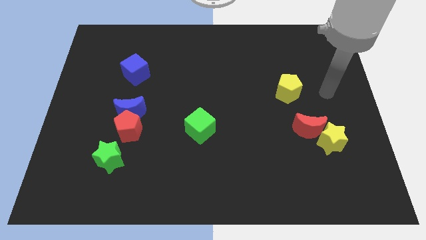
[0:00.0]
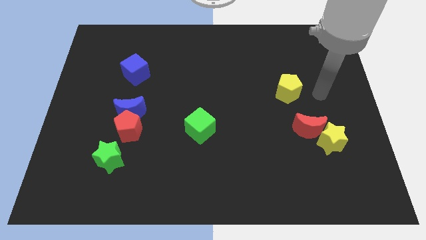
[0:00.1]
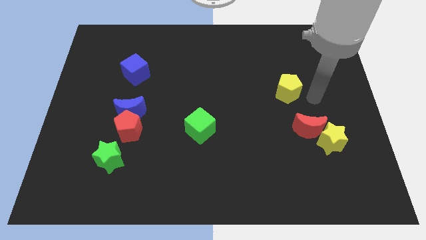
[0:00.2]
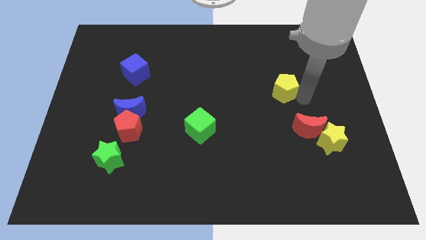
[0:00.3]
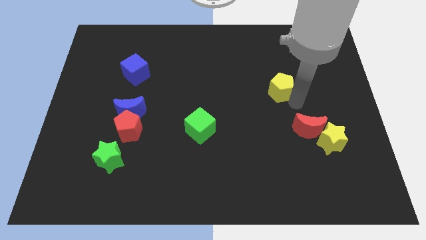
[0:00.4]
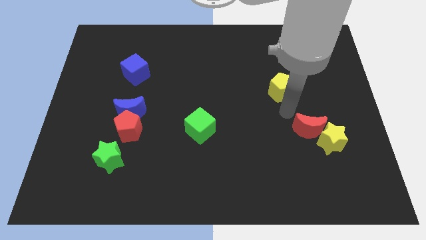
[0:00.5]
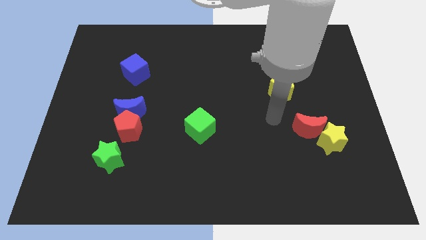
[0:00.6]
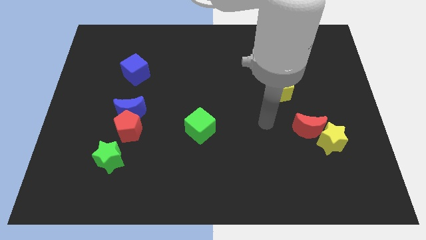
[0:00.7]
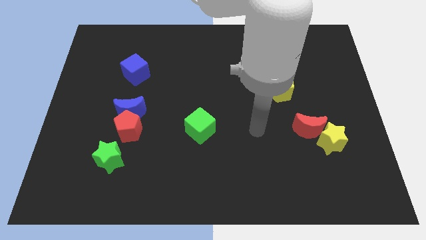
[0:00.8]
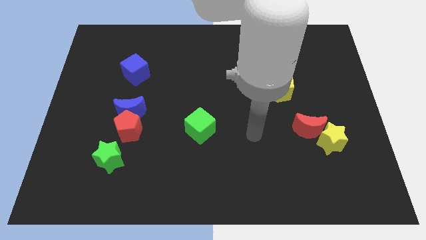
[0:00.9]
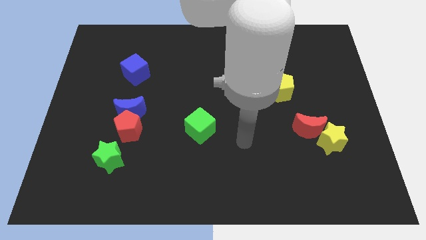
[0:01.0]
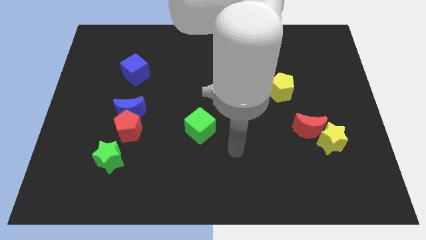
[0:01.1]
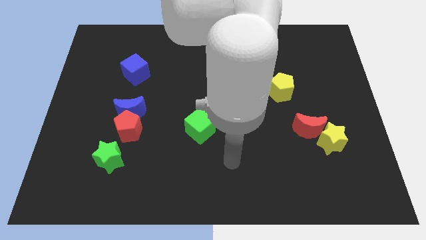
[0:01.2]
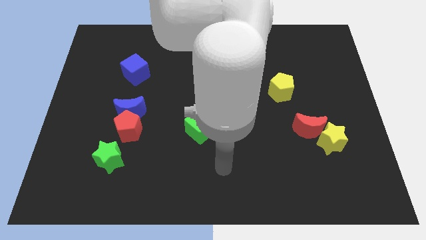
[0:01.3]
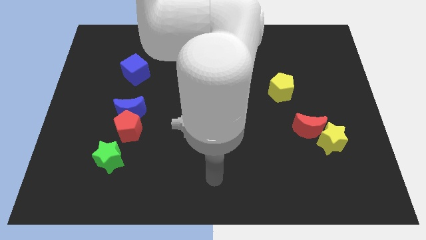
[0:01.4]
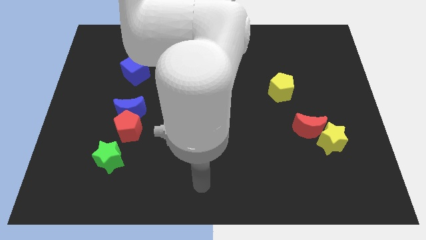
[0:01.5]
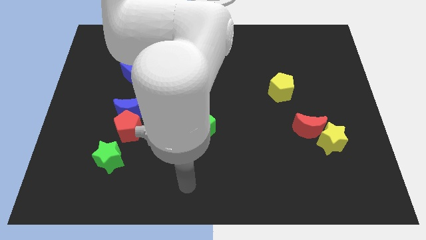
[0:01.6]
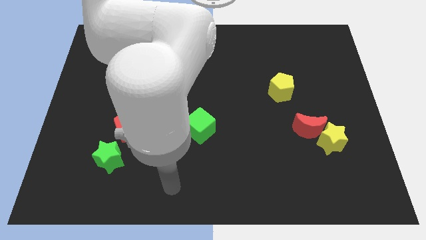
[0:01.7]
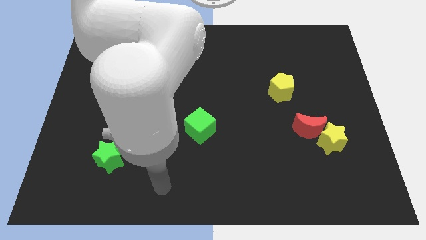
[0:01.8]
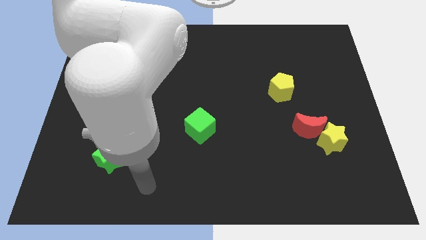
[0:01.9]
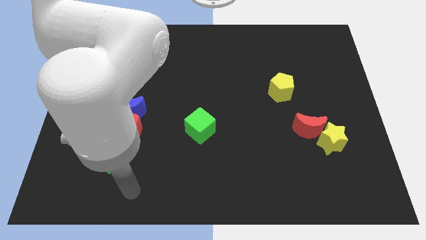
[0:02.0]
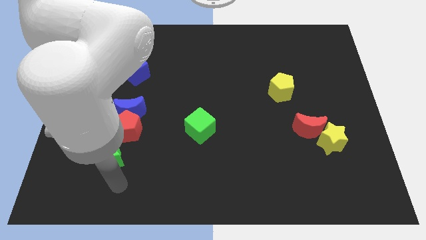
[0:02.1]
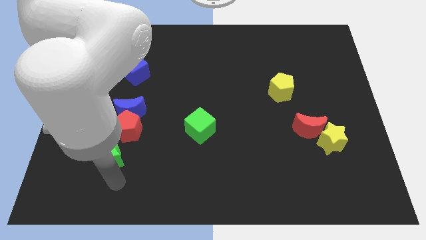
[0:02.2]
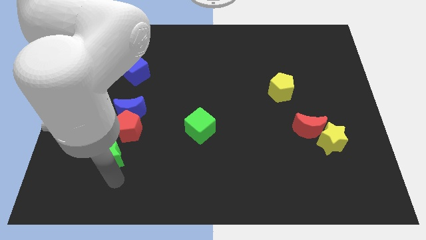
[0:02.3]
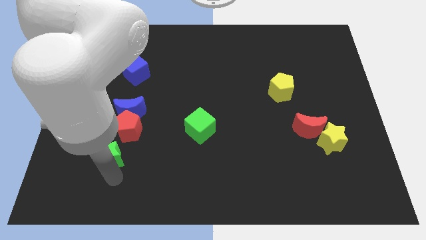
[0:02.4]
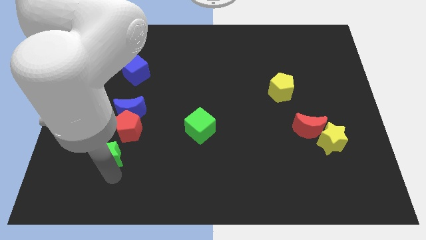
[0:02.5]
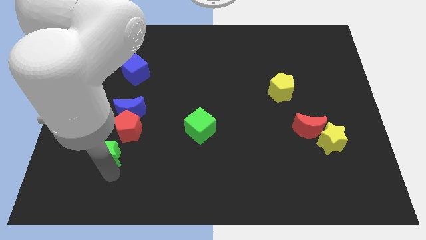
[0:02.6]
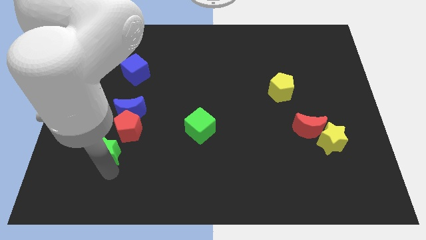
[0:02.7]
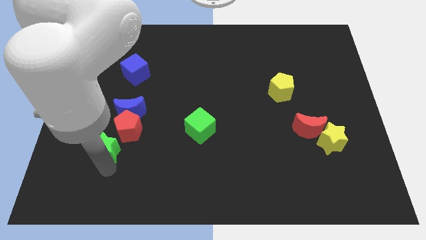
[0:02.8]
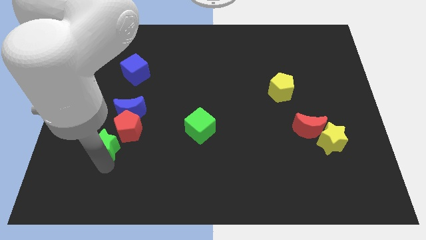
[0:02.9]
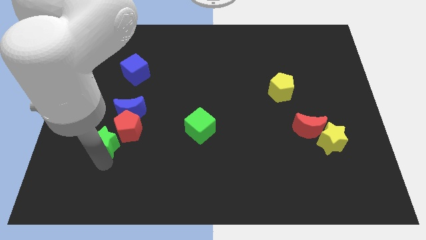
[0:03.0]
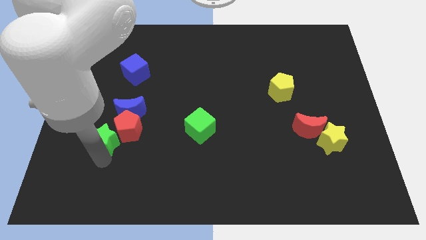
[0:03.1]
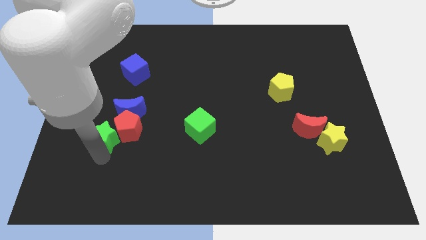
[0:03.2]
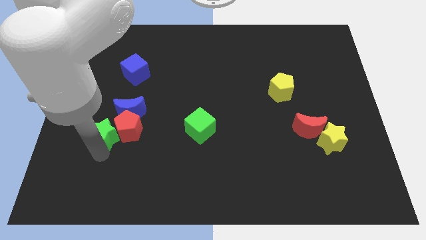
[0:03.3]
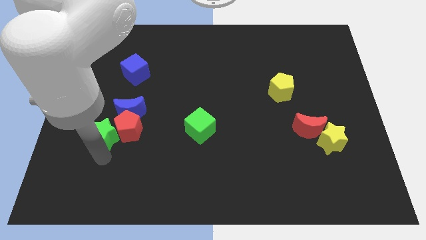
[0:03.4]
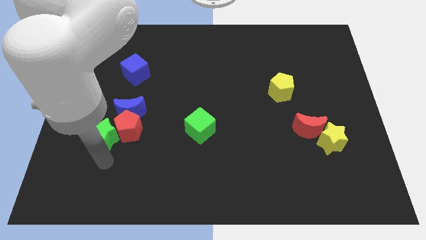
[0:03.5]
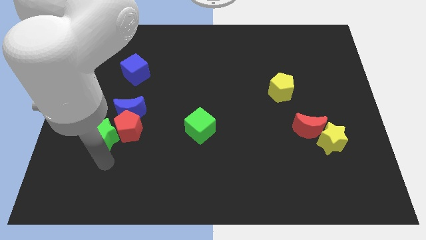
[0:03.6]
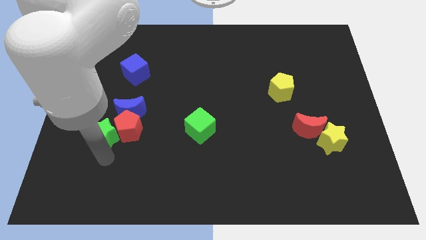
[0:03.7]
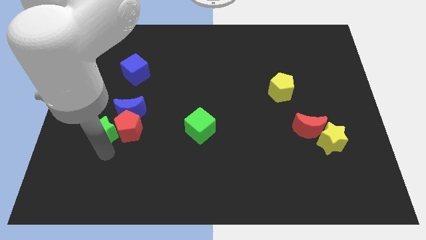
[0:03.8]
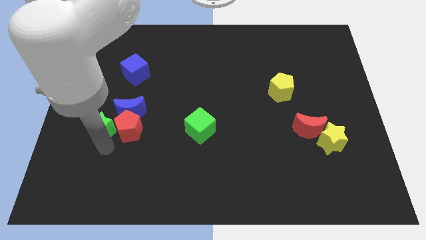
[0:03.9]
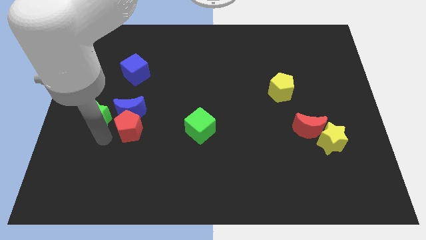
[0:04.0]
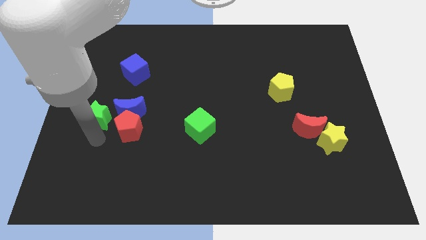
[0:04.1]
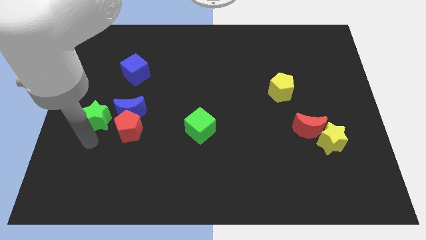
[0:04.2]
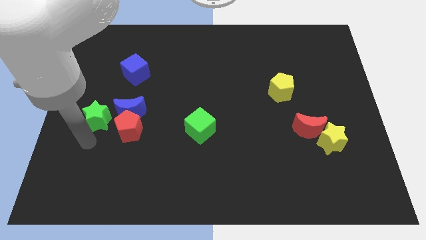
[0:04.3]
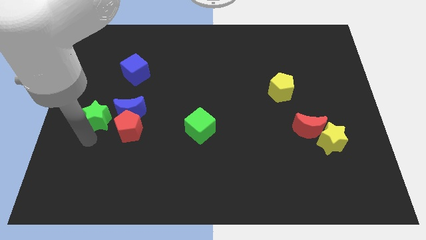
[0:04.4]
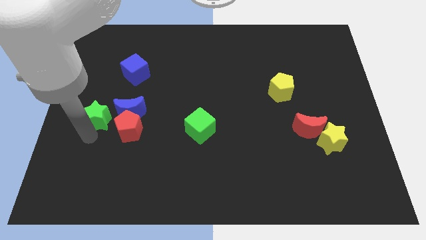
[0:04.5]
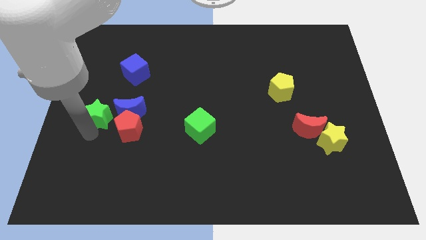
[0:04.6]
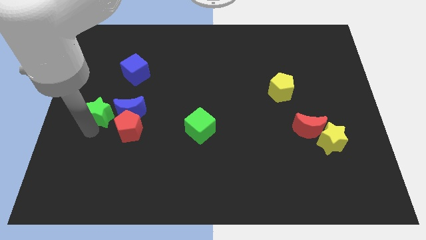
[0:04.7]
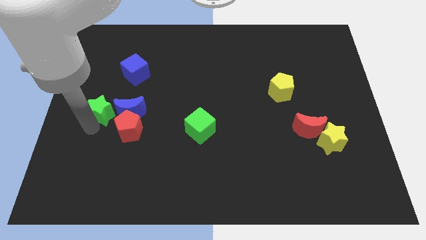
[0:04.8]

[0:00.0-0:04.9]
slide the green star to the top left side of the blue moon

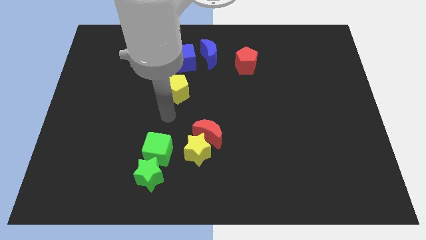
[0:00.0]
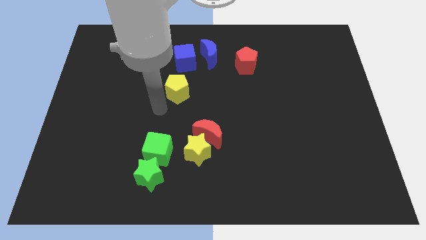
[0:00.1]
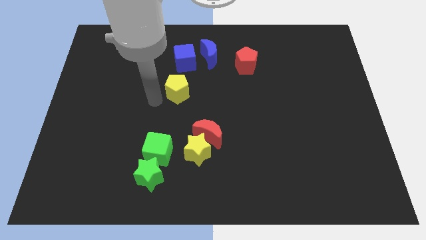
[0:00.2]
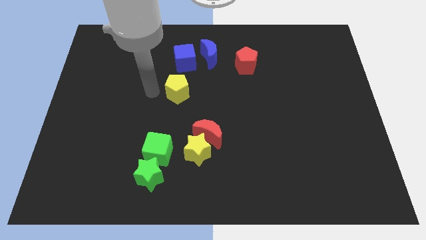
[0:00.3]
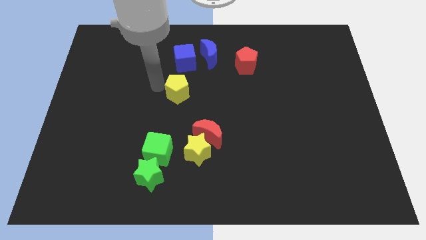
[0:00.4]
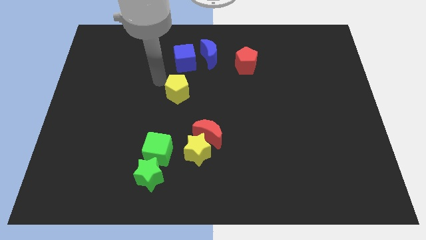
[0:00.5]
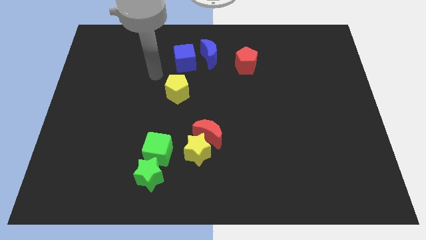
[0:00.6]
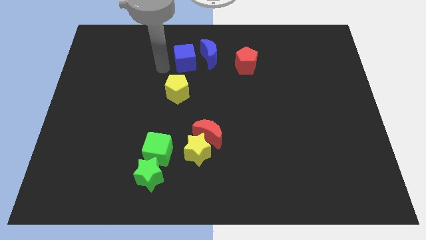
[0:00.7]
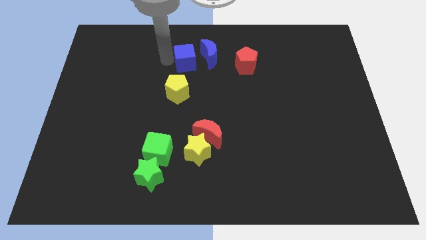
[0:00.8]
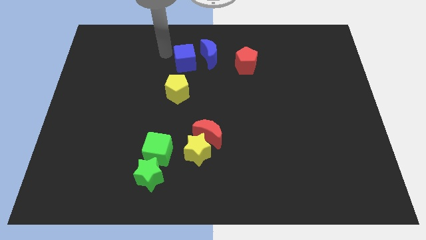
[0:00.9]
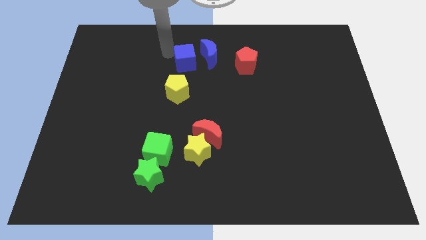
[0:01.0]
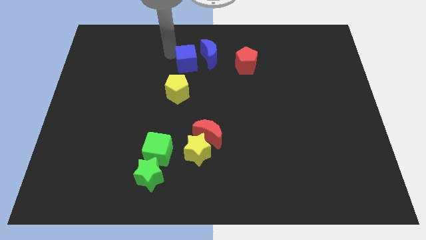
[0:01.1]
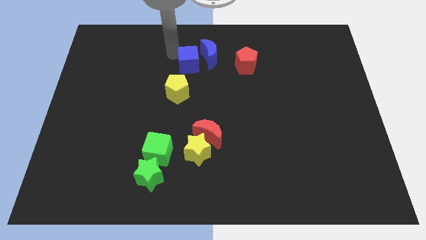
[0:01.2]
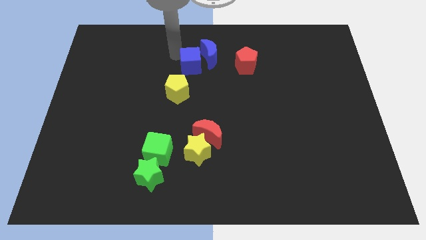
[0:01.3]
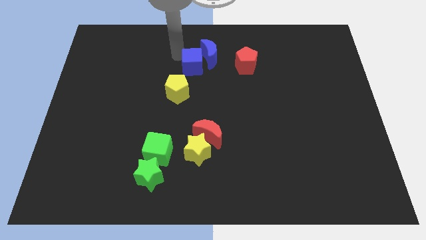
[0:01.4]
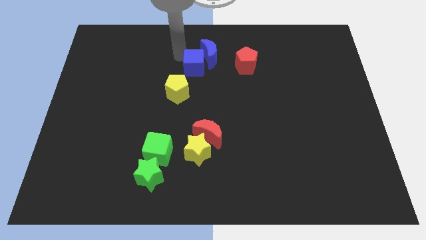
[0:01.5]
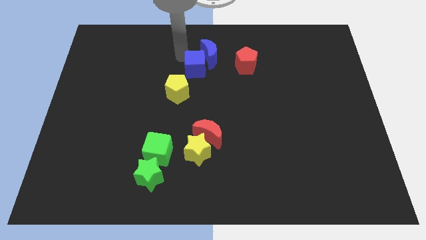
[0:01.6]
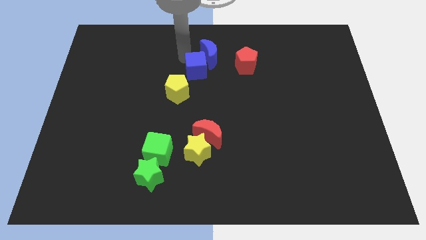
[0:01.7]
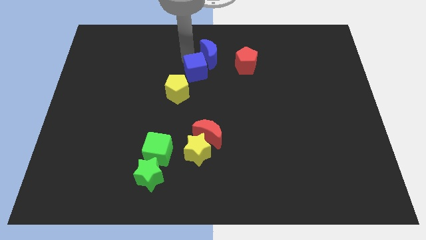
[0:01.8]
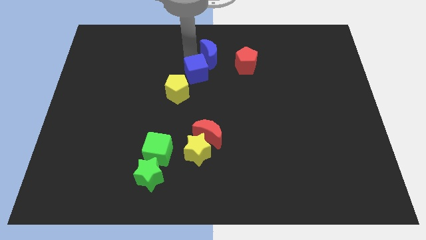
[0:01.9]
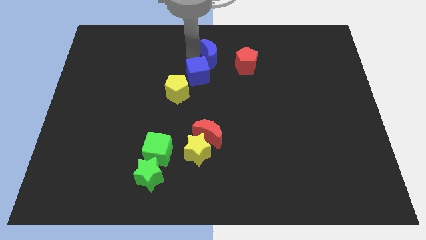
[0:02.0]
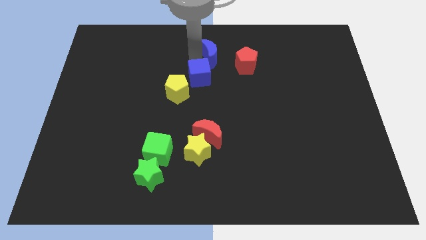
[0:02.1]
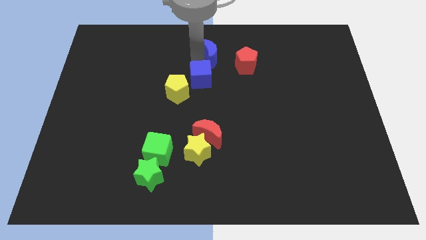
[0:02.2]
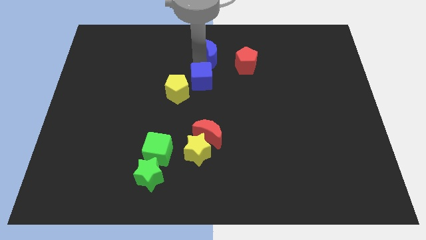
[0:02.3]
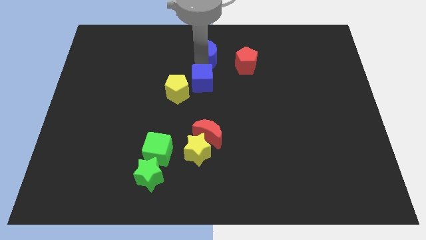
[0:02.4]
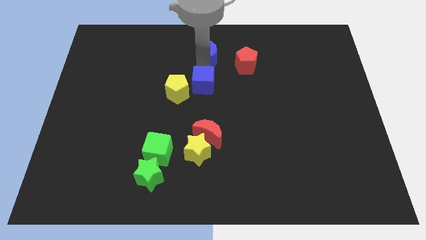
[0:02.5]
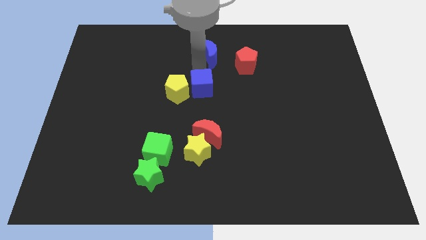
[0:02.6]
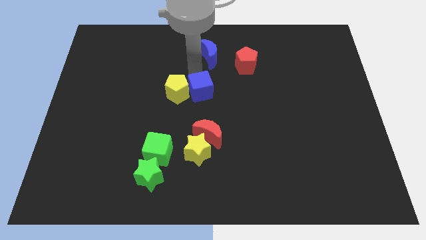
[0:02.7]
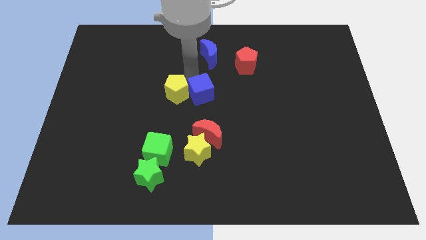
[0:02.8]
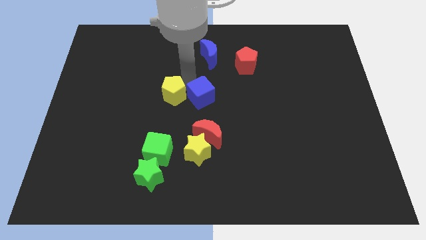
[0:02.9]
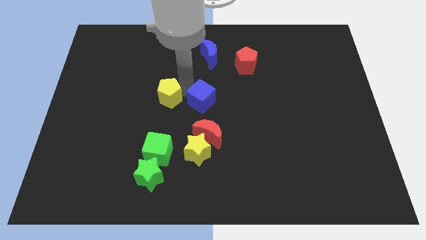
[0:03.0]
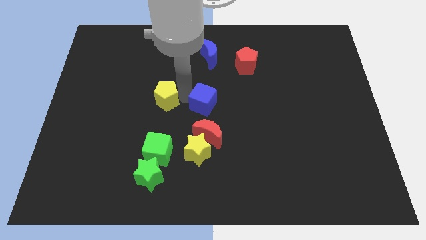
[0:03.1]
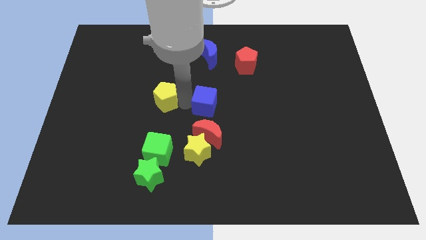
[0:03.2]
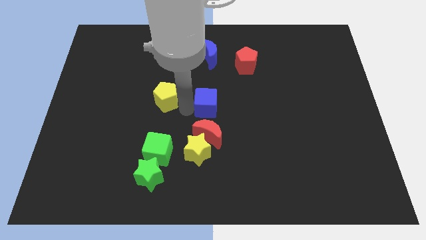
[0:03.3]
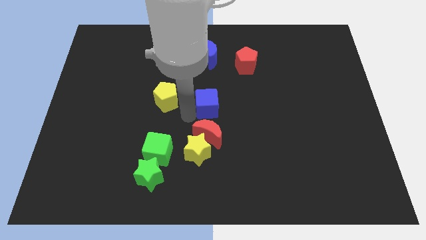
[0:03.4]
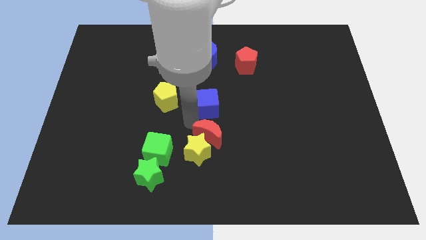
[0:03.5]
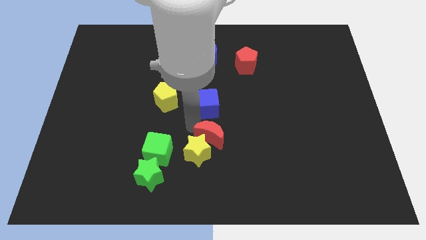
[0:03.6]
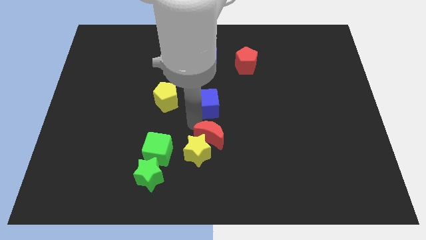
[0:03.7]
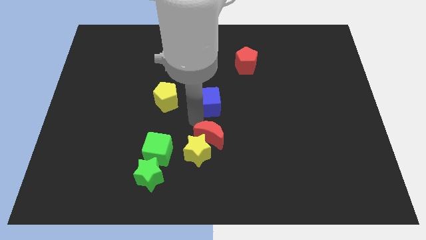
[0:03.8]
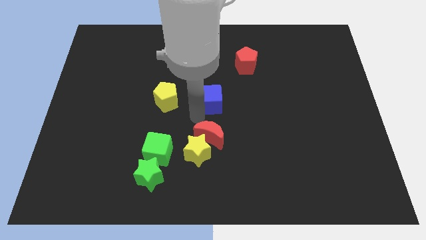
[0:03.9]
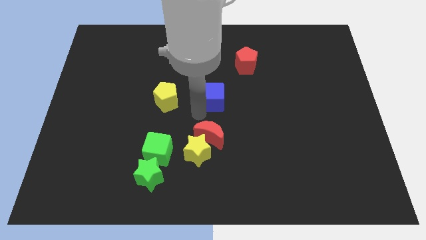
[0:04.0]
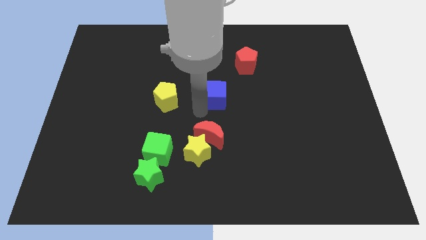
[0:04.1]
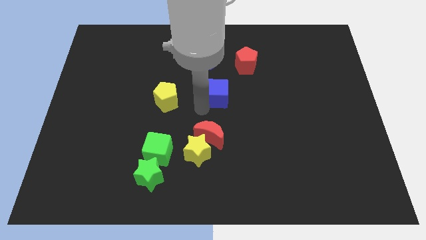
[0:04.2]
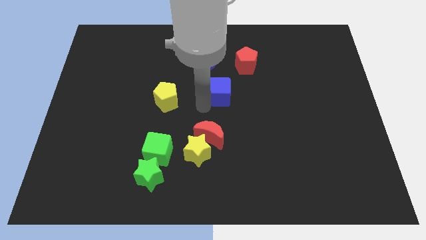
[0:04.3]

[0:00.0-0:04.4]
move the blue cube to the bottom left of the red pentagon
